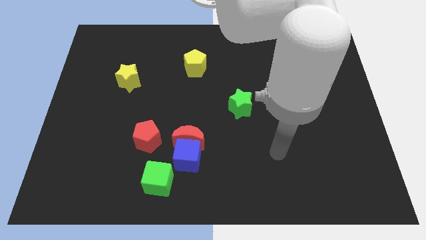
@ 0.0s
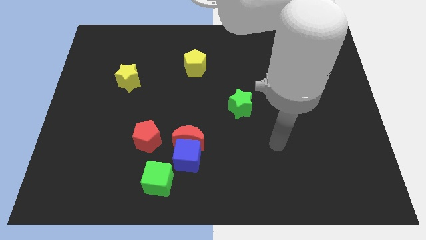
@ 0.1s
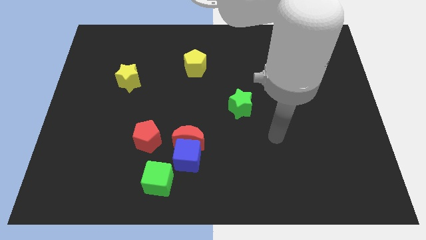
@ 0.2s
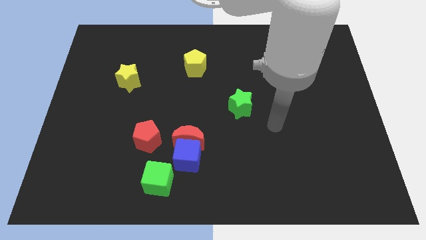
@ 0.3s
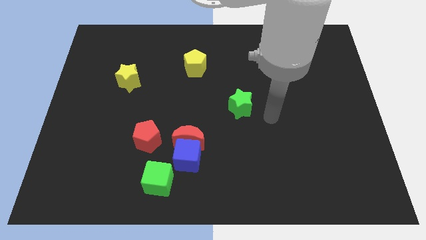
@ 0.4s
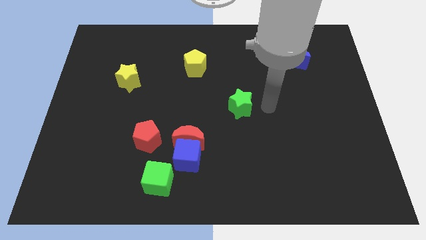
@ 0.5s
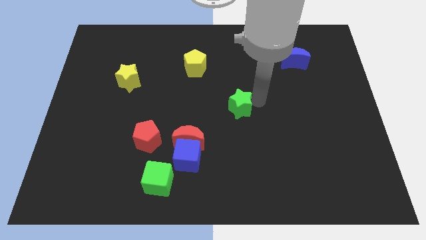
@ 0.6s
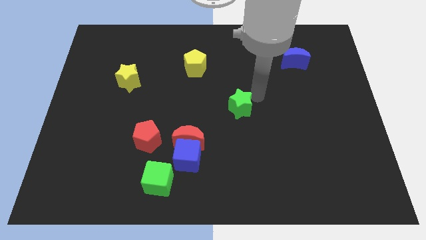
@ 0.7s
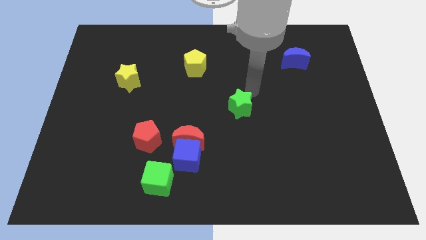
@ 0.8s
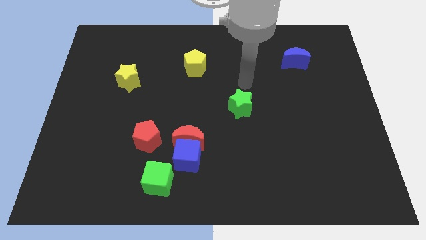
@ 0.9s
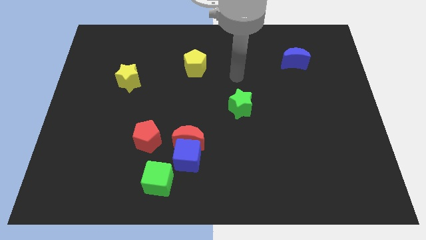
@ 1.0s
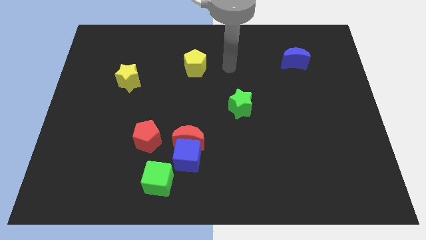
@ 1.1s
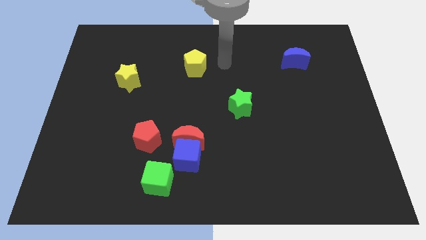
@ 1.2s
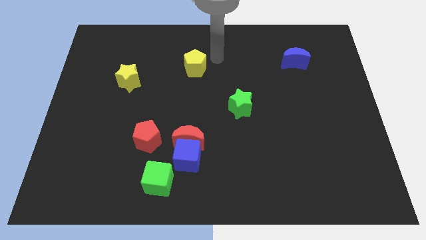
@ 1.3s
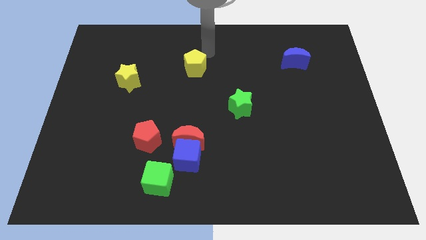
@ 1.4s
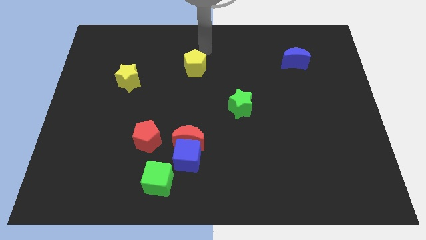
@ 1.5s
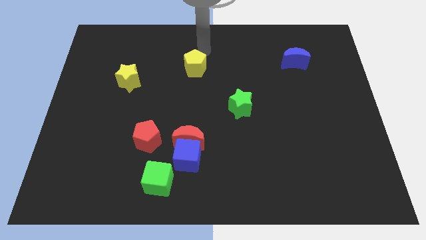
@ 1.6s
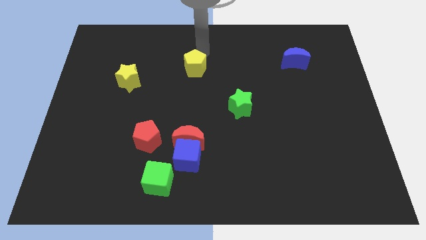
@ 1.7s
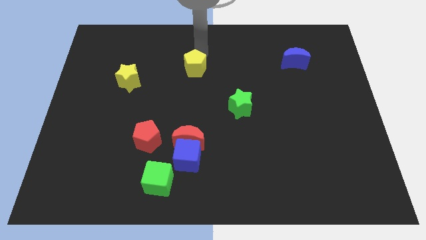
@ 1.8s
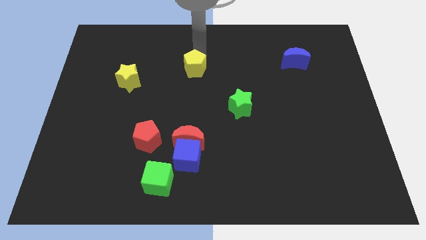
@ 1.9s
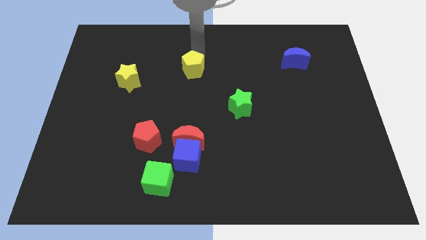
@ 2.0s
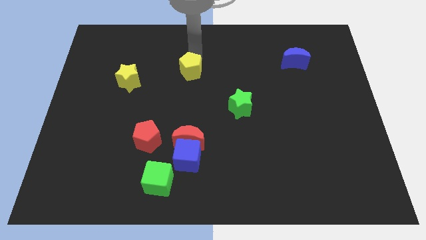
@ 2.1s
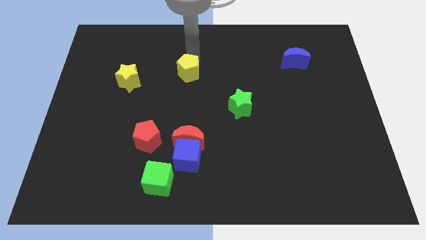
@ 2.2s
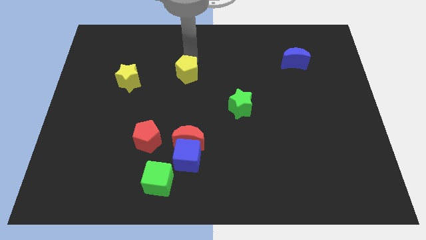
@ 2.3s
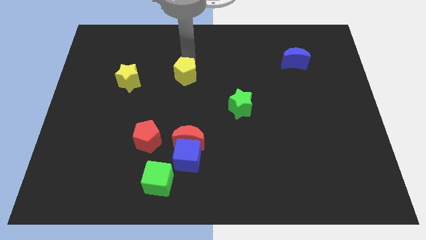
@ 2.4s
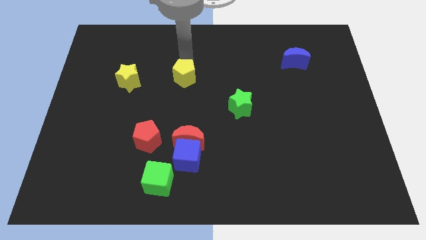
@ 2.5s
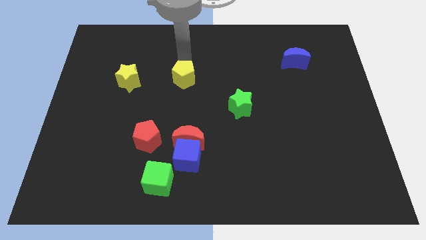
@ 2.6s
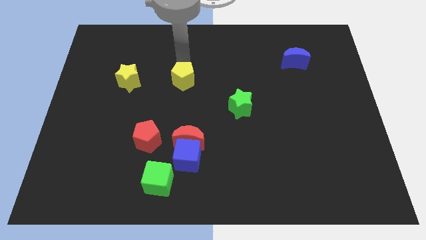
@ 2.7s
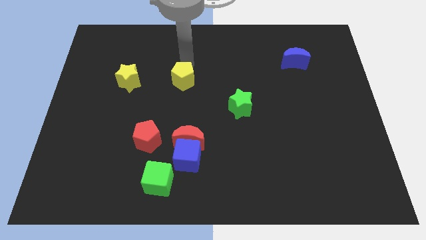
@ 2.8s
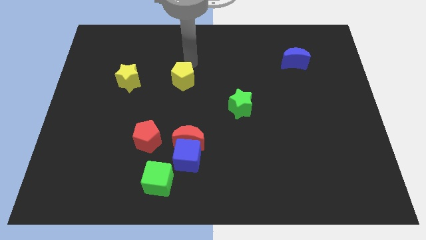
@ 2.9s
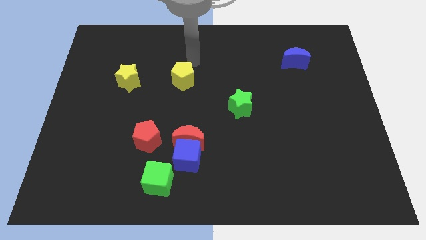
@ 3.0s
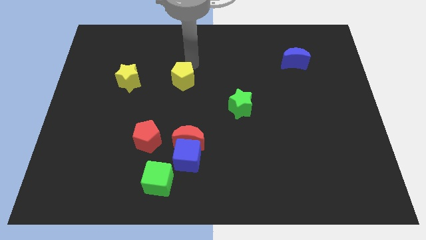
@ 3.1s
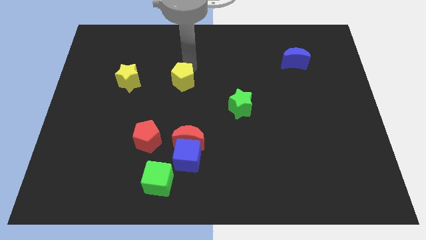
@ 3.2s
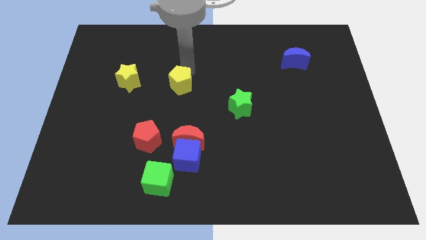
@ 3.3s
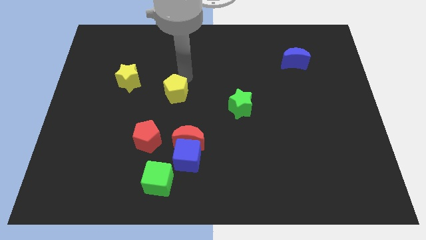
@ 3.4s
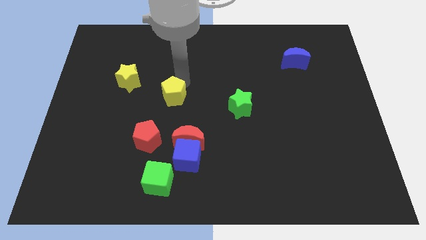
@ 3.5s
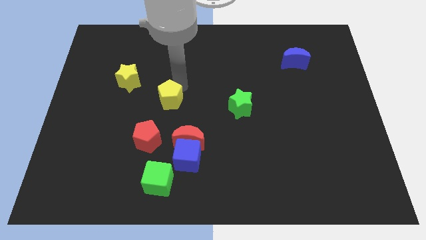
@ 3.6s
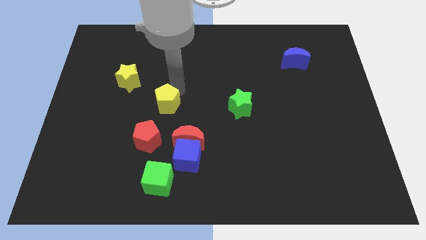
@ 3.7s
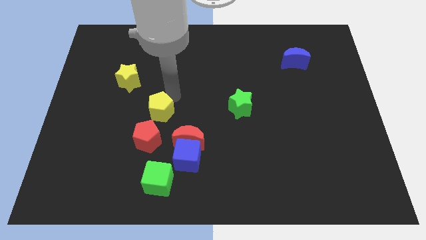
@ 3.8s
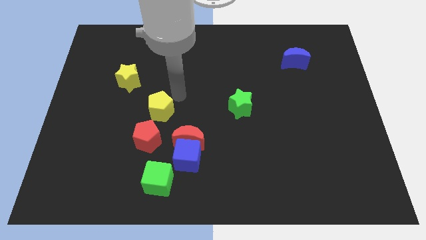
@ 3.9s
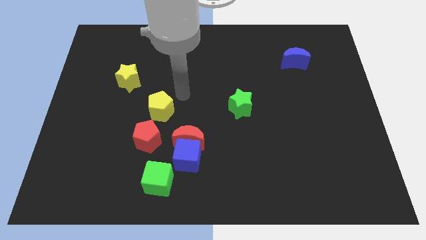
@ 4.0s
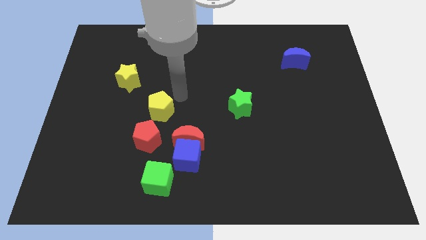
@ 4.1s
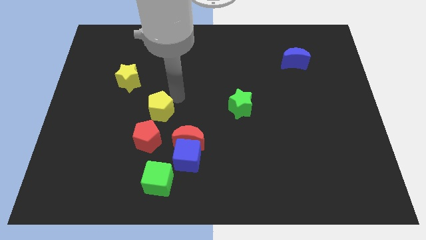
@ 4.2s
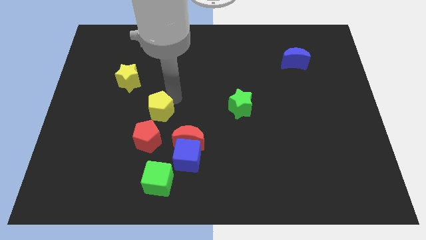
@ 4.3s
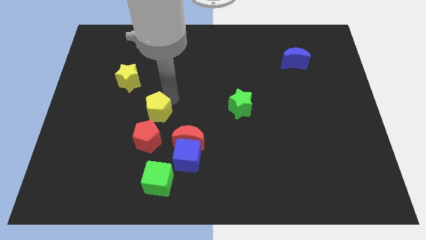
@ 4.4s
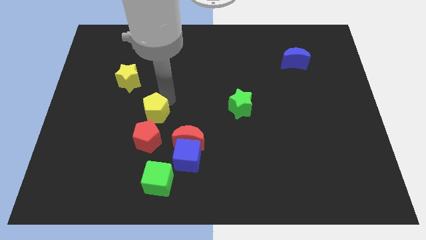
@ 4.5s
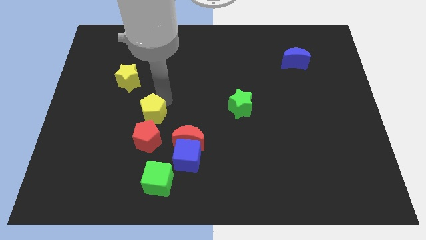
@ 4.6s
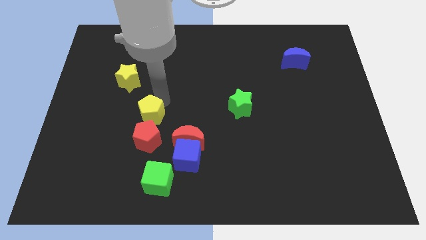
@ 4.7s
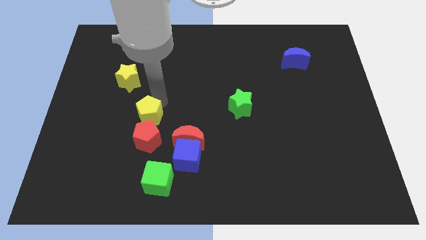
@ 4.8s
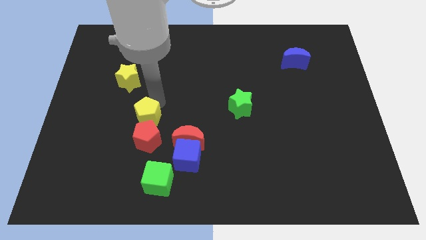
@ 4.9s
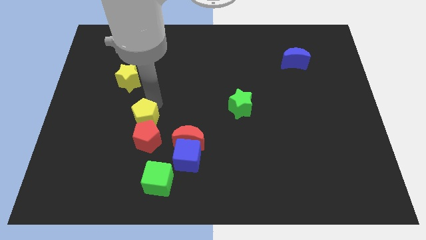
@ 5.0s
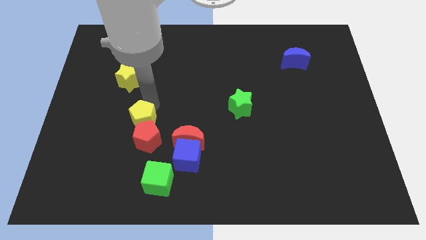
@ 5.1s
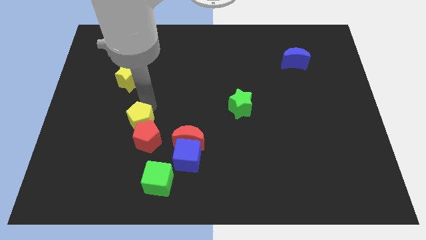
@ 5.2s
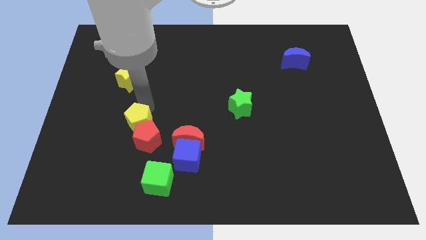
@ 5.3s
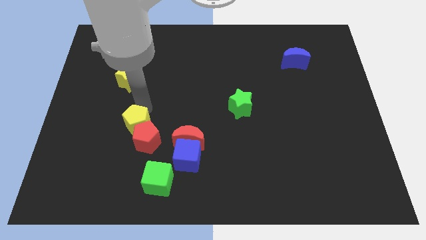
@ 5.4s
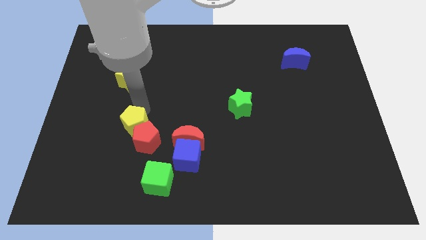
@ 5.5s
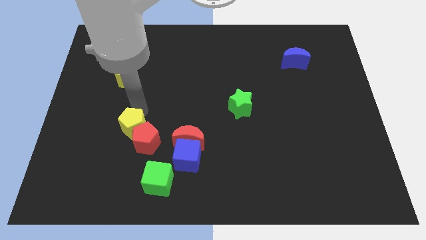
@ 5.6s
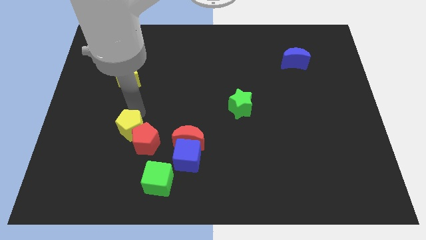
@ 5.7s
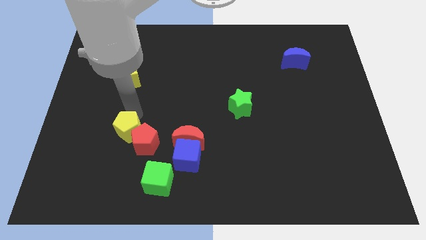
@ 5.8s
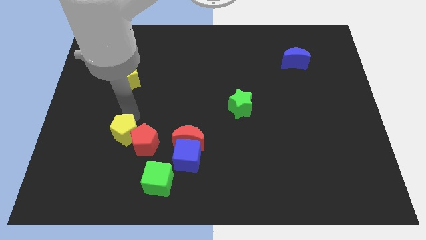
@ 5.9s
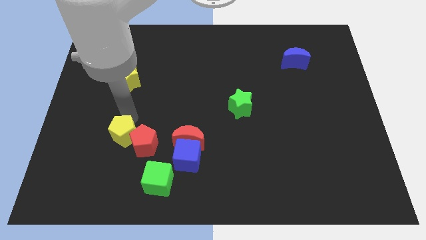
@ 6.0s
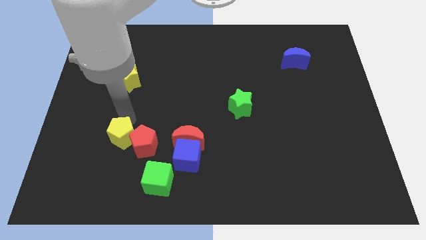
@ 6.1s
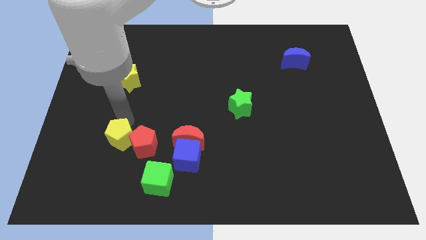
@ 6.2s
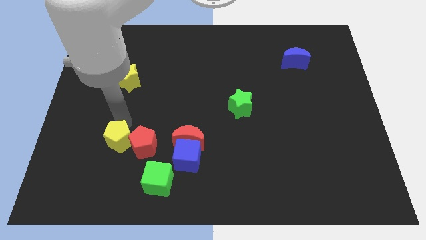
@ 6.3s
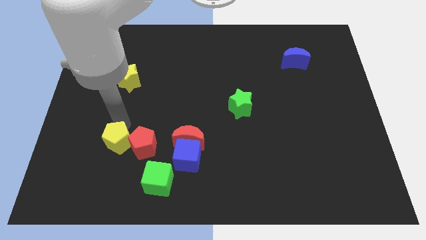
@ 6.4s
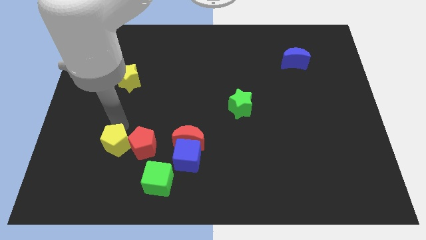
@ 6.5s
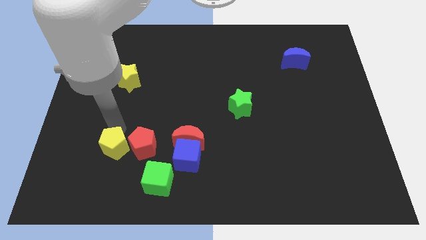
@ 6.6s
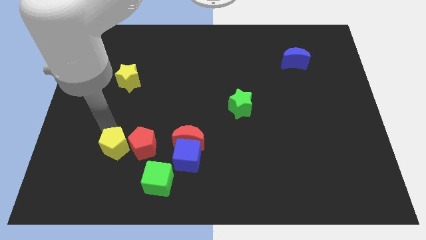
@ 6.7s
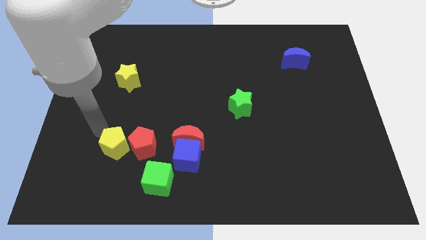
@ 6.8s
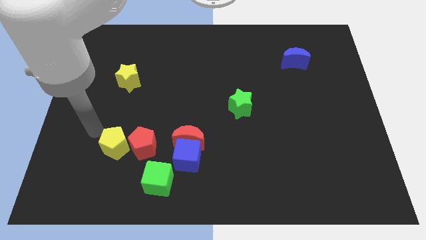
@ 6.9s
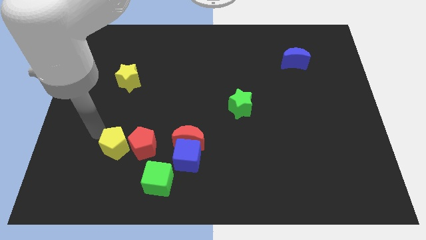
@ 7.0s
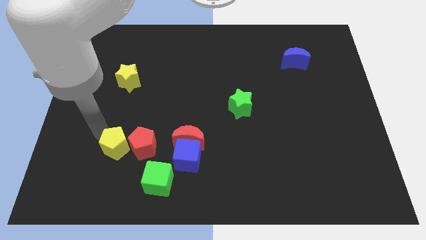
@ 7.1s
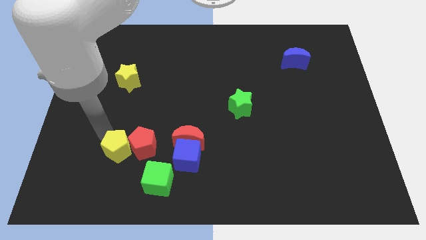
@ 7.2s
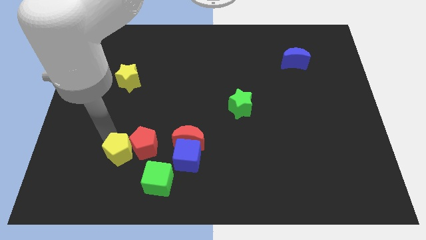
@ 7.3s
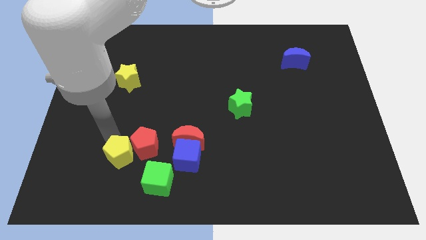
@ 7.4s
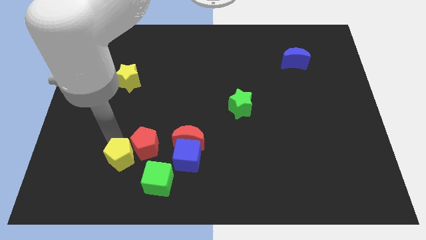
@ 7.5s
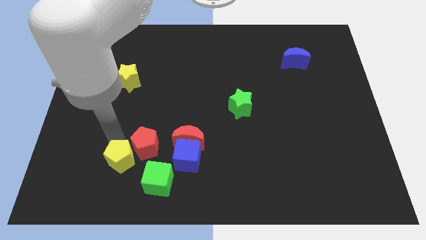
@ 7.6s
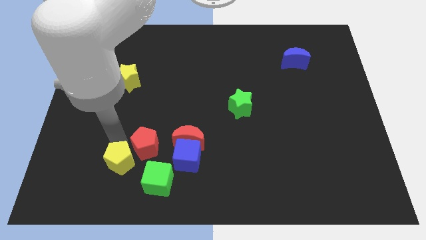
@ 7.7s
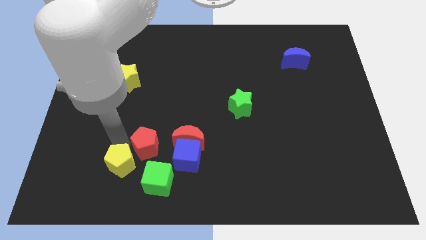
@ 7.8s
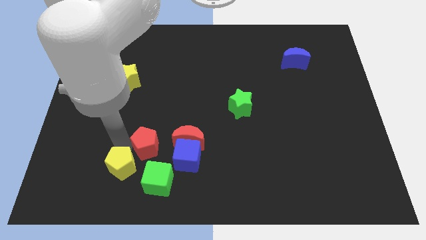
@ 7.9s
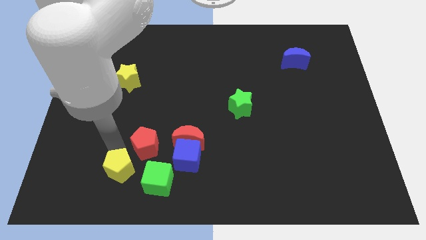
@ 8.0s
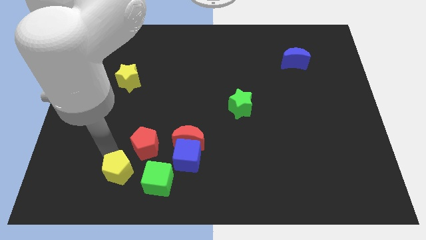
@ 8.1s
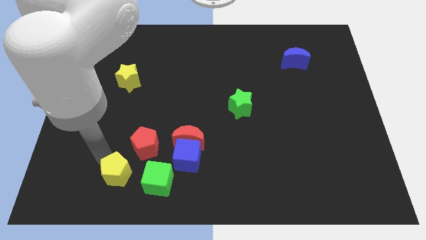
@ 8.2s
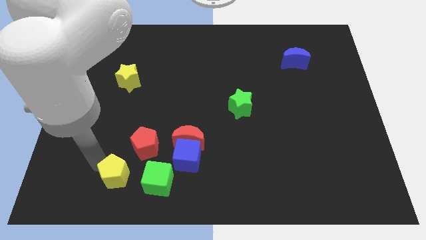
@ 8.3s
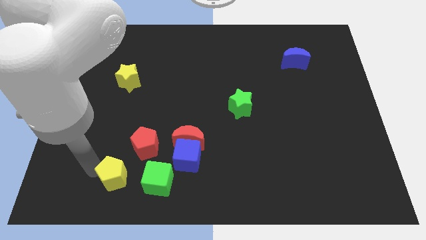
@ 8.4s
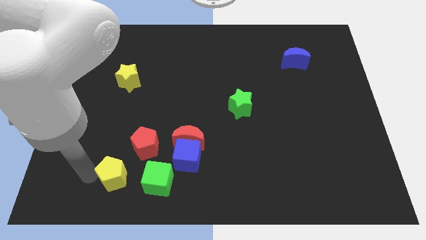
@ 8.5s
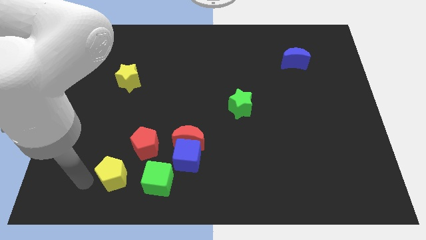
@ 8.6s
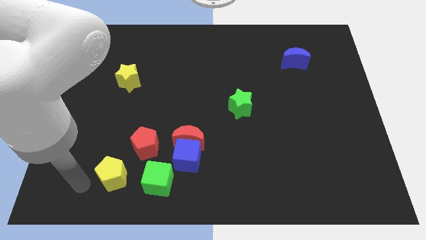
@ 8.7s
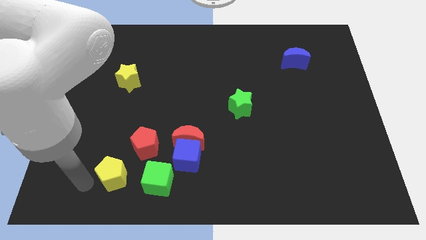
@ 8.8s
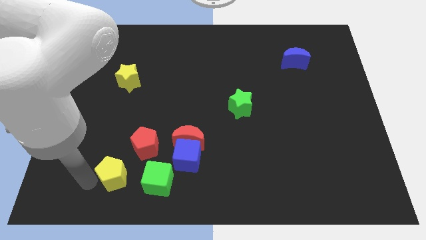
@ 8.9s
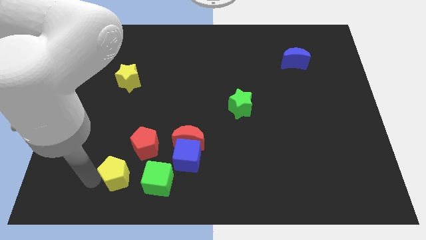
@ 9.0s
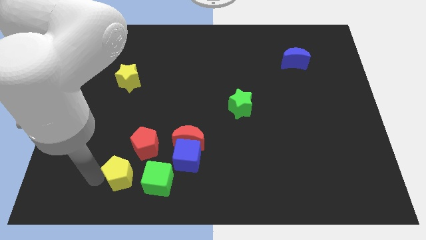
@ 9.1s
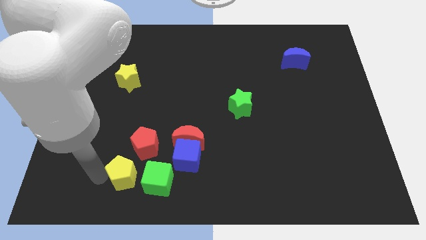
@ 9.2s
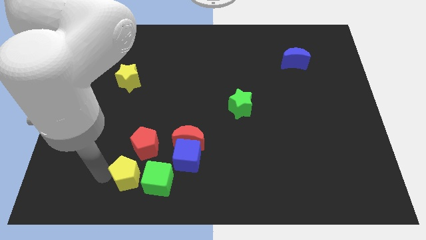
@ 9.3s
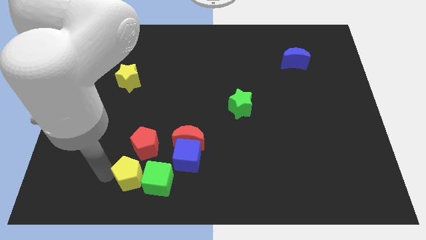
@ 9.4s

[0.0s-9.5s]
push the yellow pentagon to the green cube
